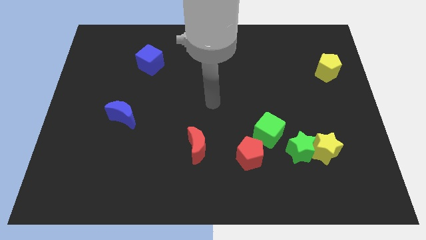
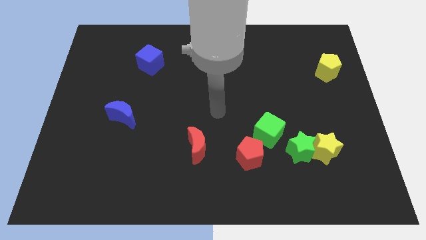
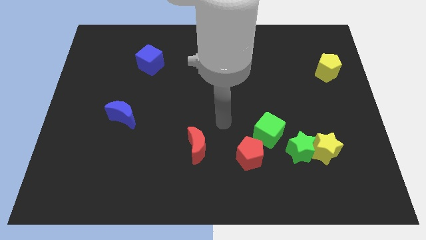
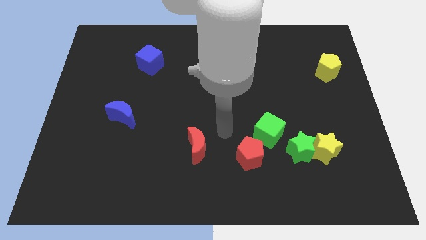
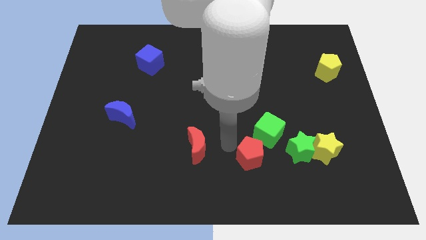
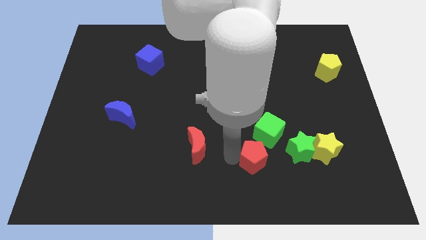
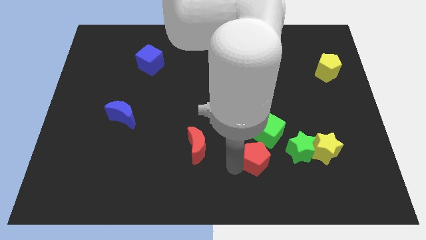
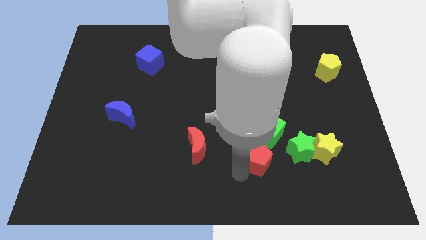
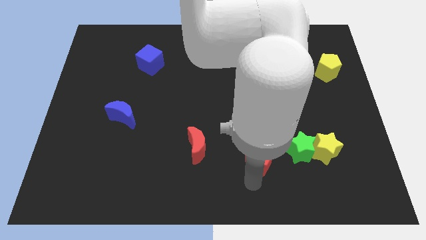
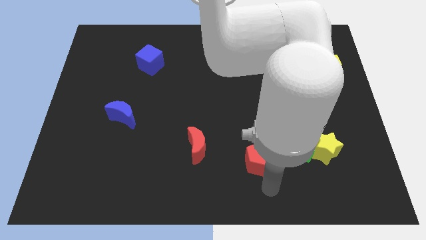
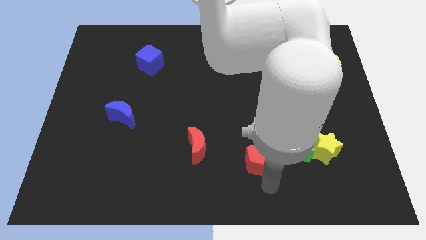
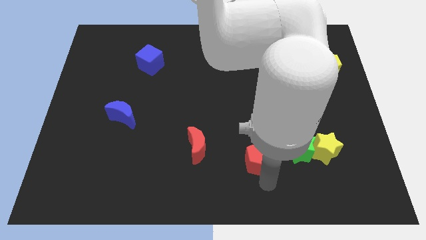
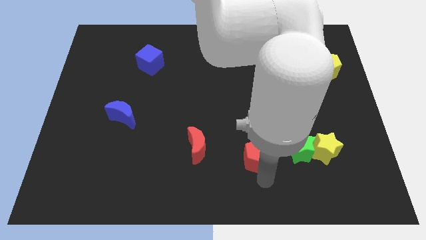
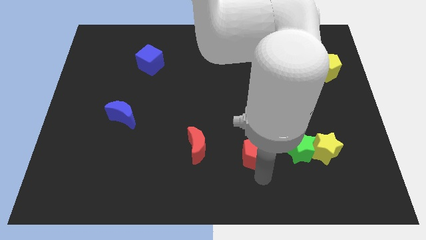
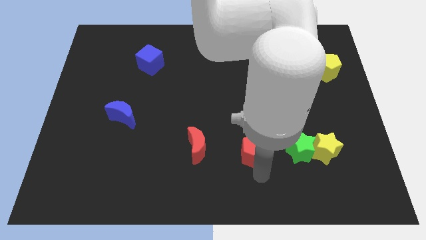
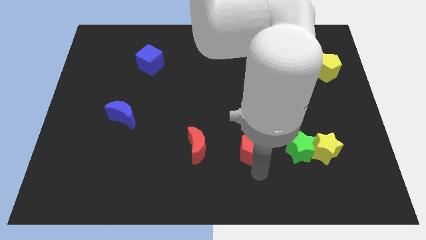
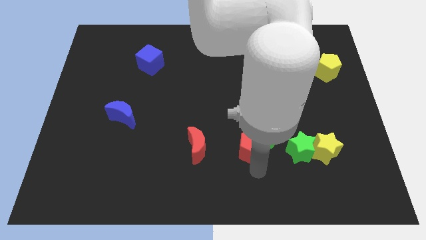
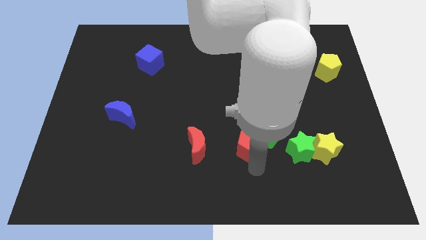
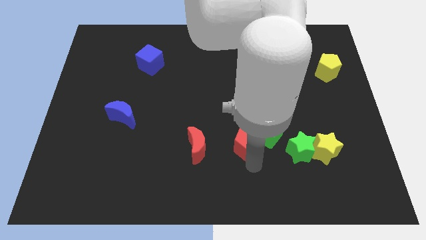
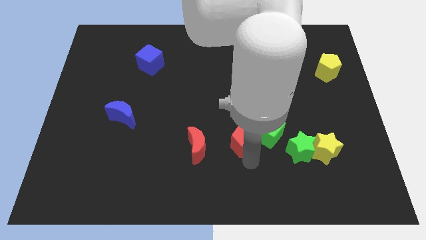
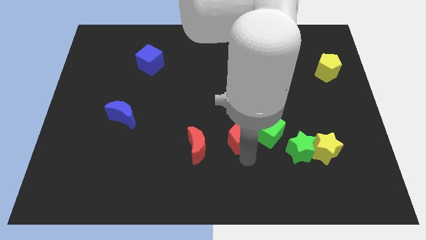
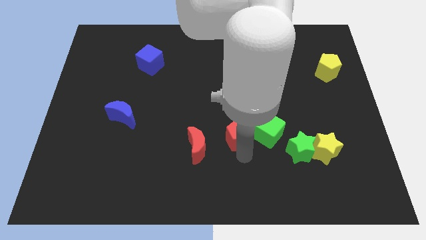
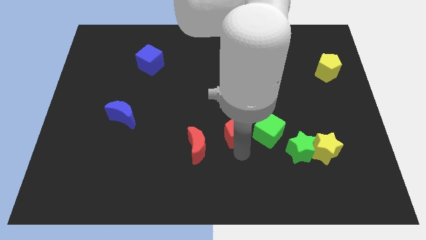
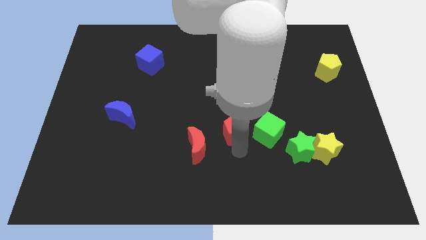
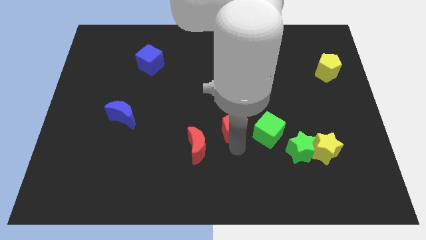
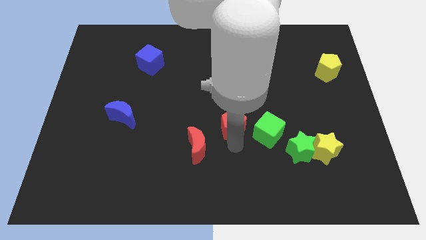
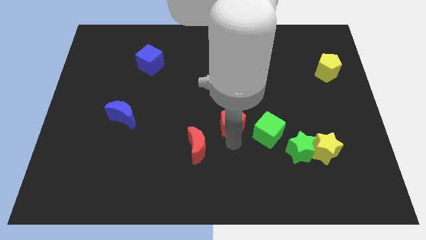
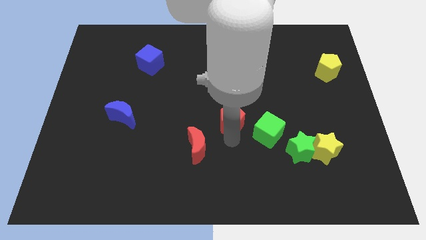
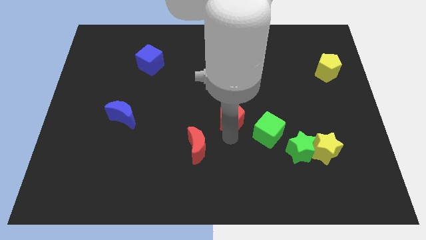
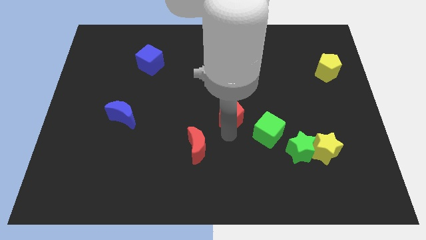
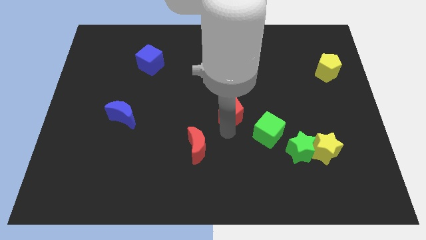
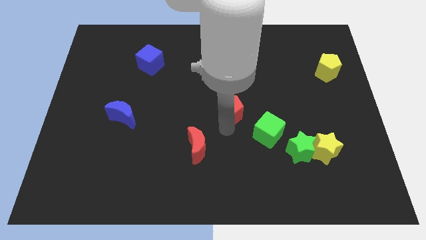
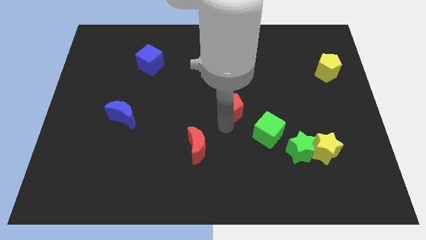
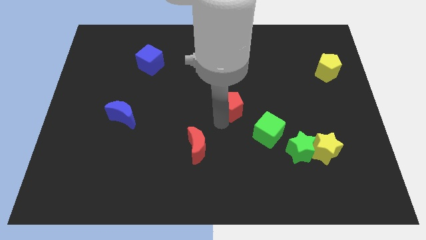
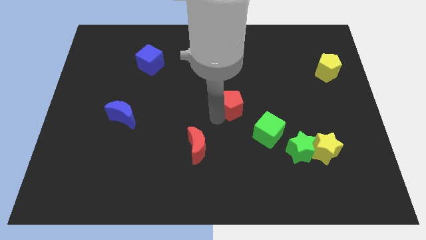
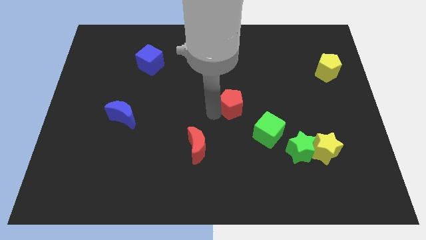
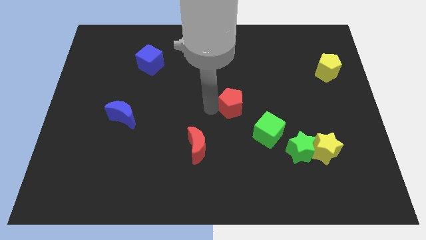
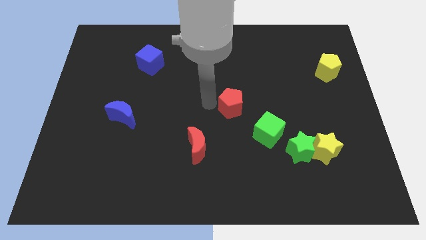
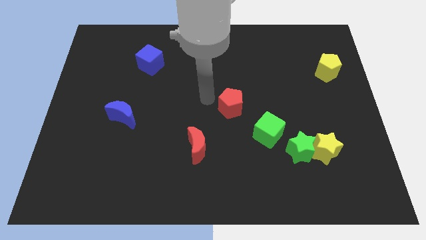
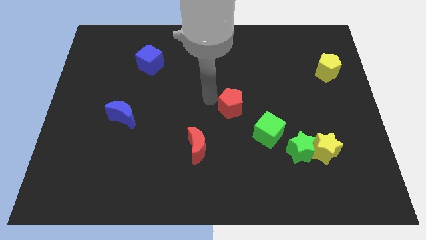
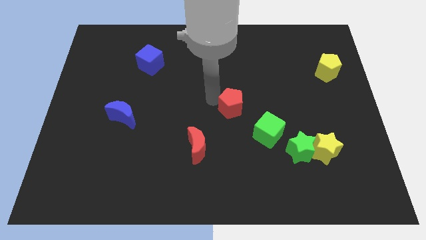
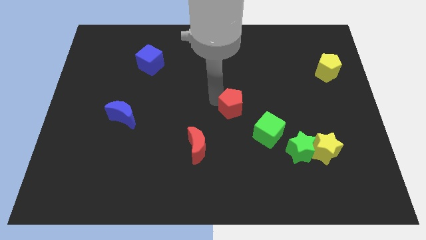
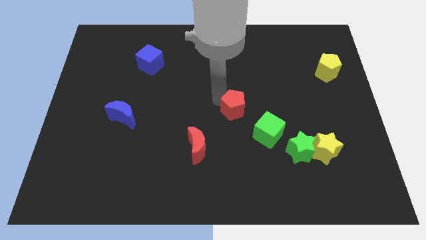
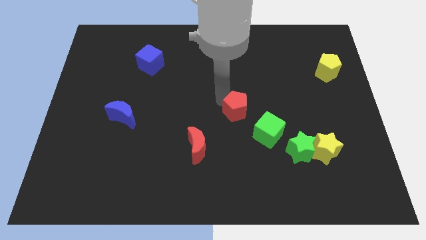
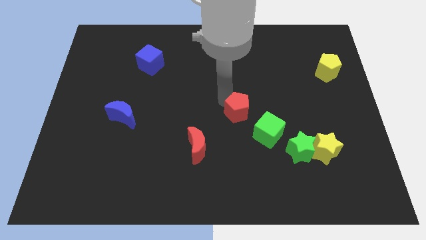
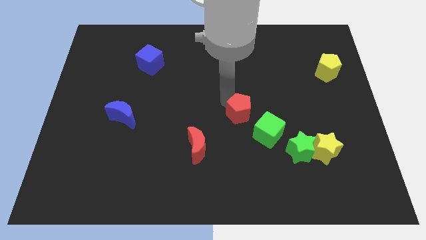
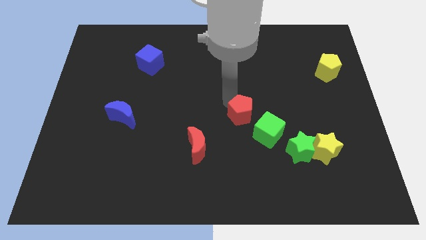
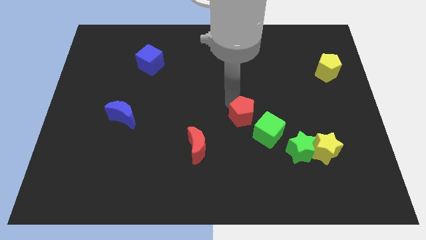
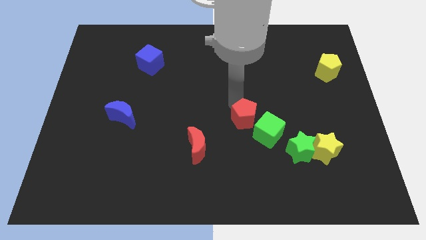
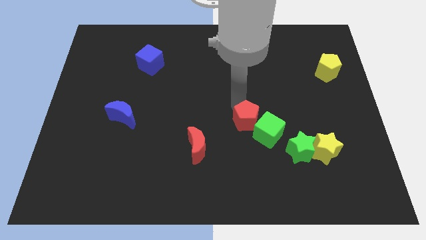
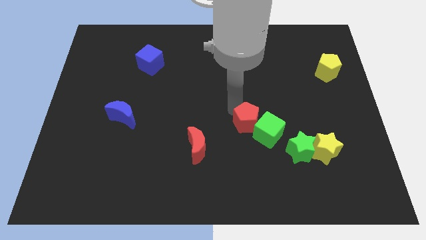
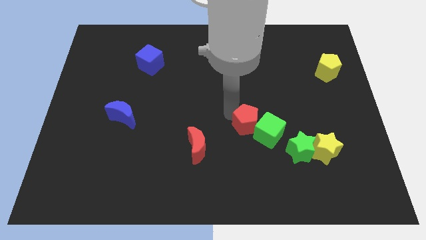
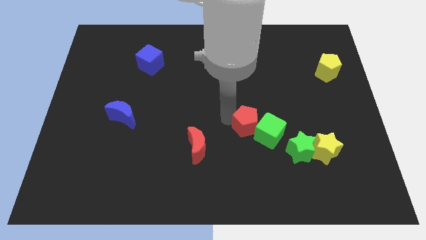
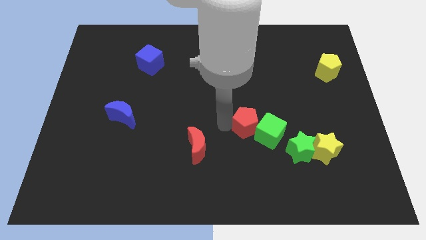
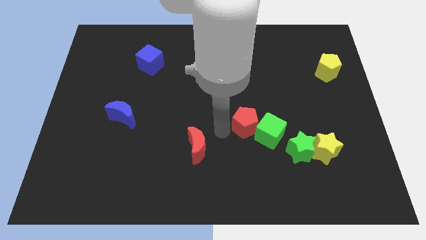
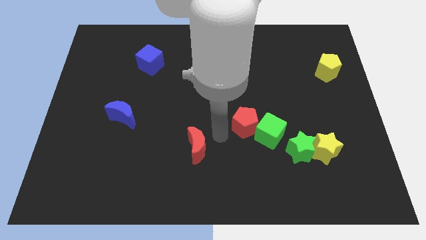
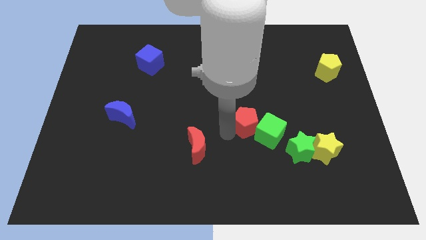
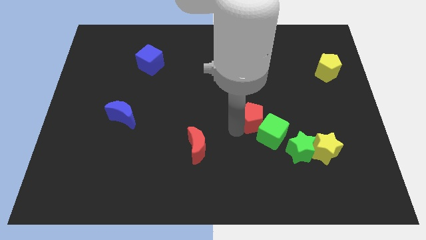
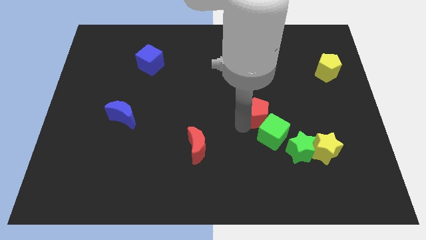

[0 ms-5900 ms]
move the red pentagon diagonally upwards and right slightly

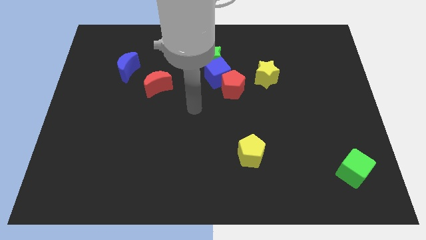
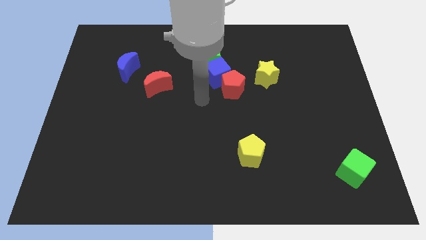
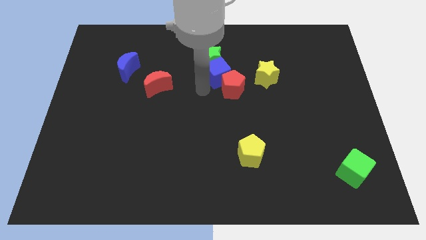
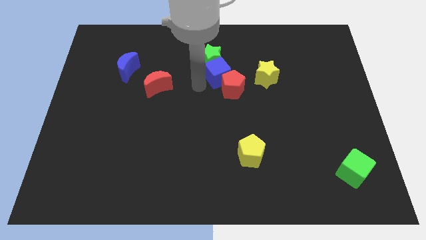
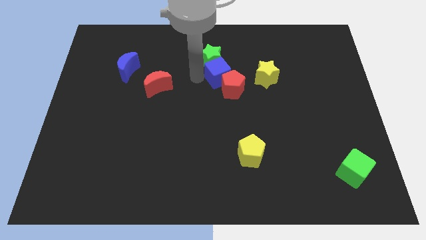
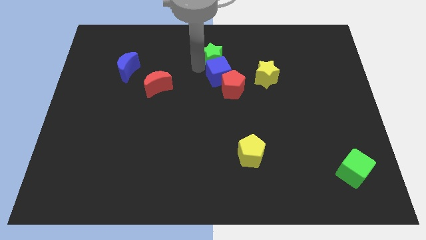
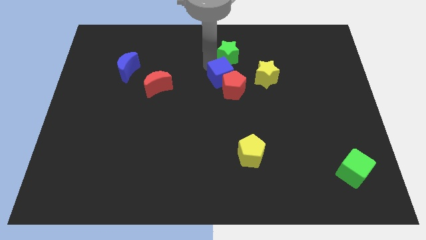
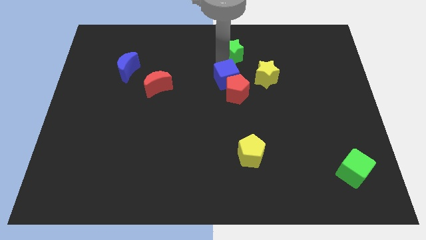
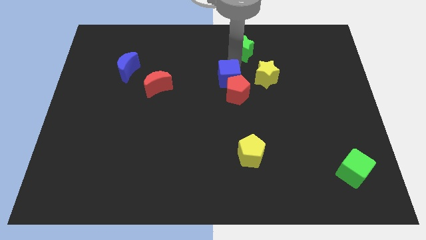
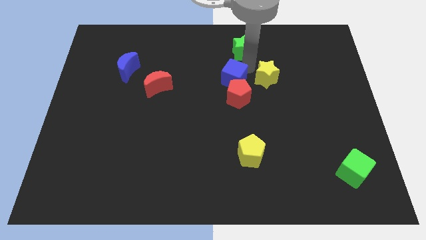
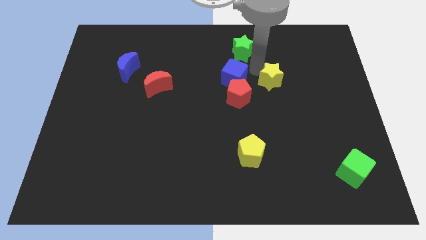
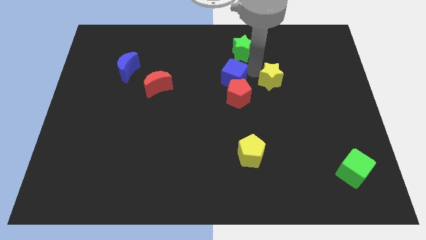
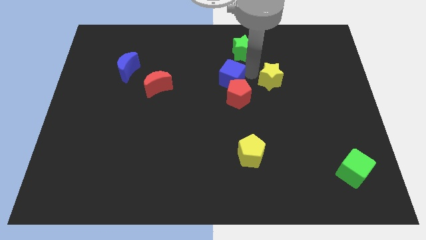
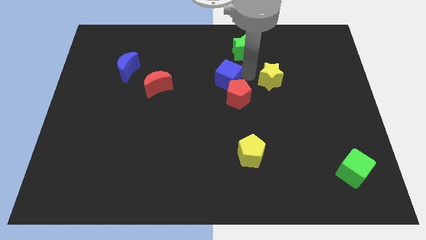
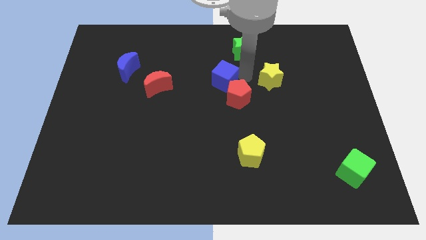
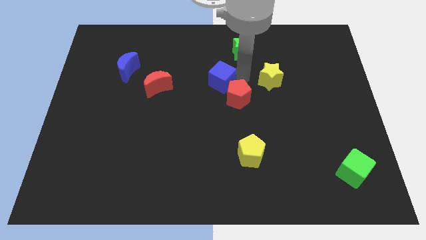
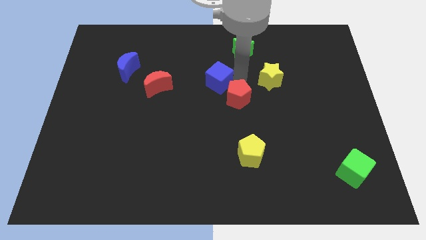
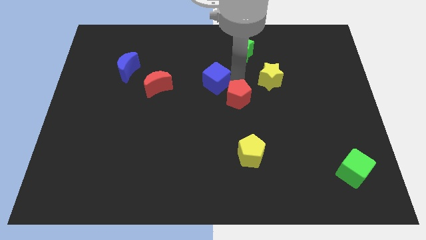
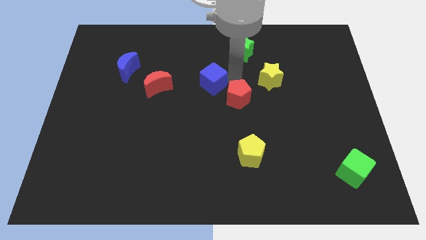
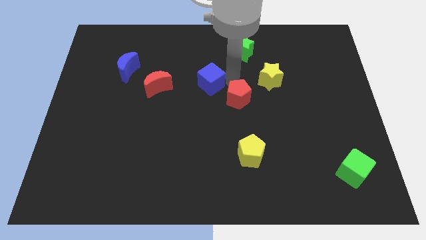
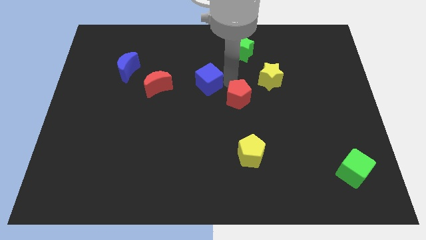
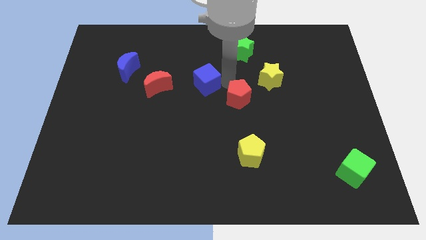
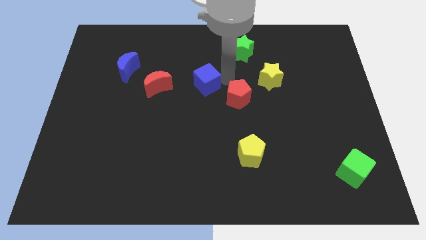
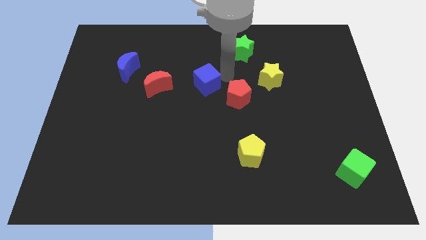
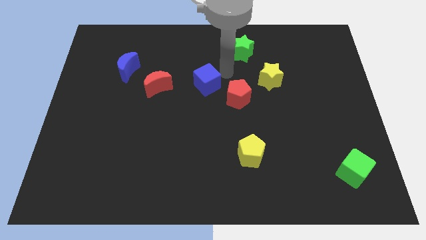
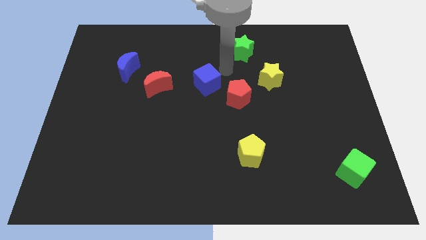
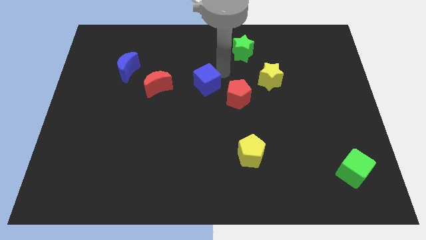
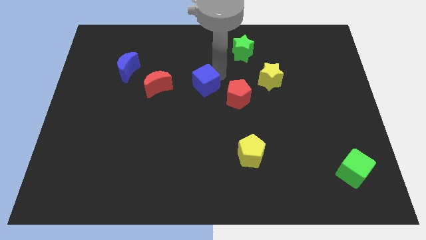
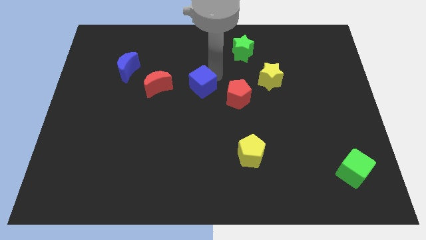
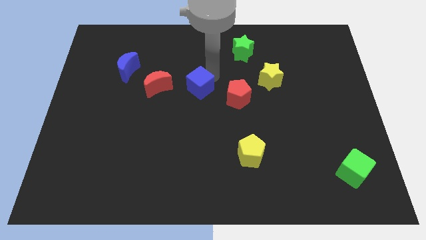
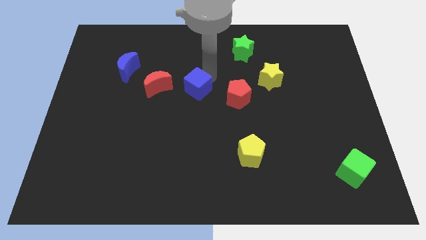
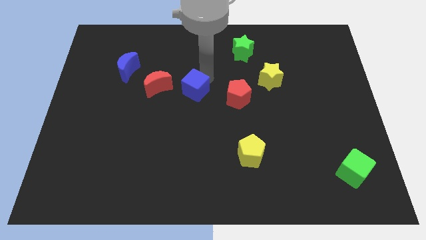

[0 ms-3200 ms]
slide the blue cube a little downwards and to the left
